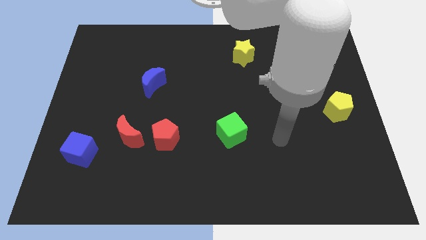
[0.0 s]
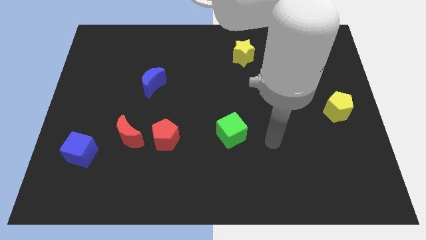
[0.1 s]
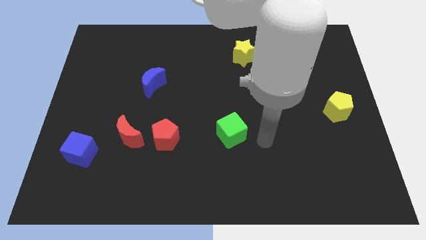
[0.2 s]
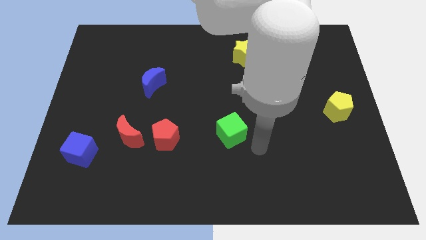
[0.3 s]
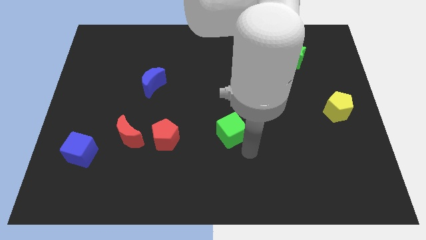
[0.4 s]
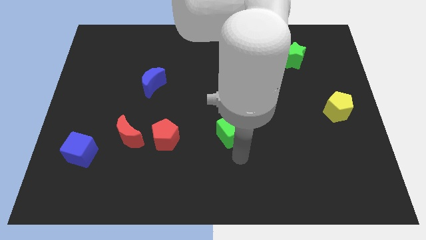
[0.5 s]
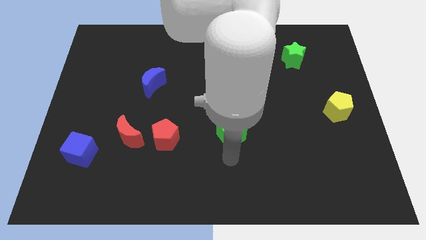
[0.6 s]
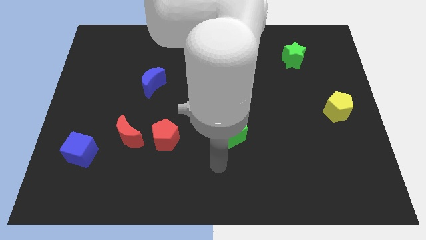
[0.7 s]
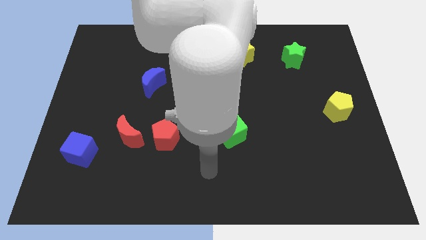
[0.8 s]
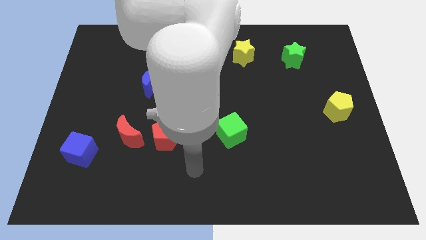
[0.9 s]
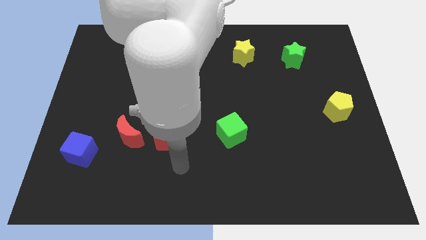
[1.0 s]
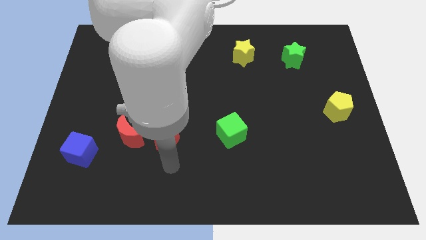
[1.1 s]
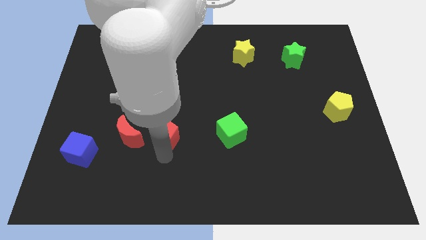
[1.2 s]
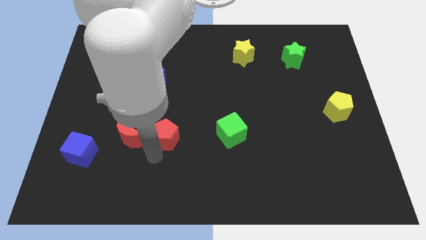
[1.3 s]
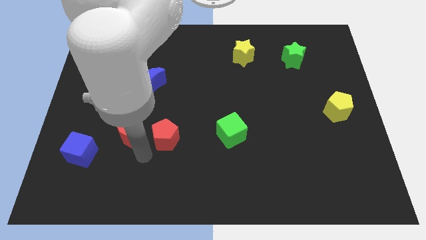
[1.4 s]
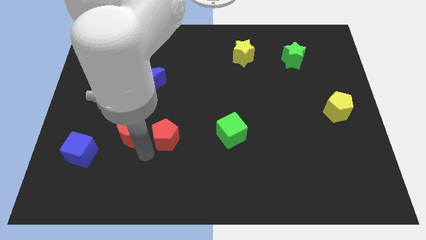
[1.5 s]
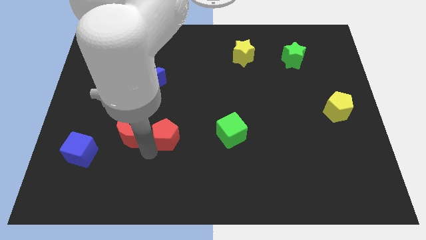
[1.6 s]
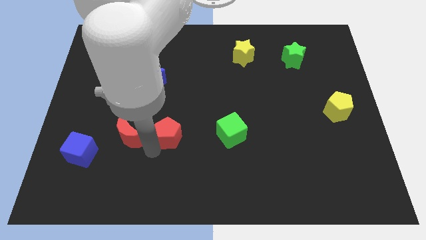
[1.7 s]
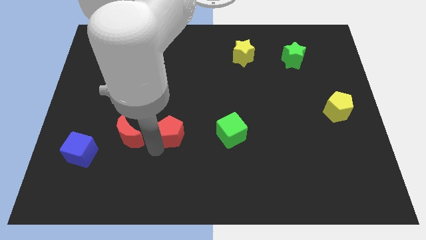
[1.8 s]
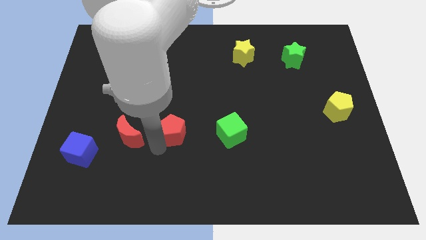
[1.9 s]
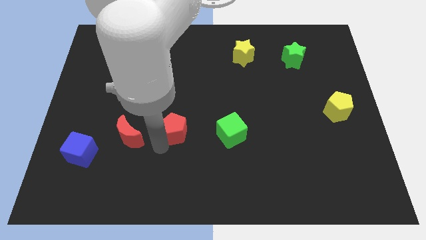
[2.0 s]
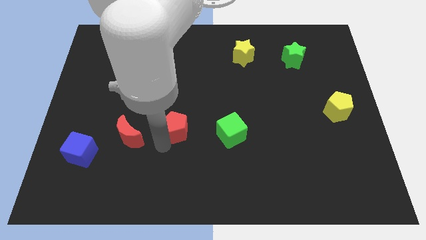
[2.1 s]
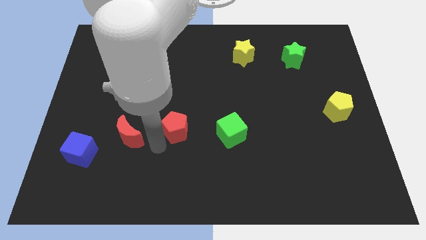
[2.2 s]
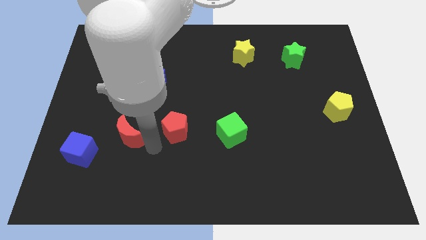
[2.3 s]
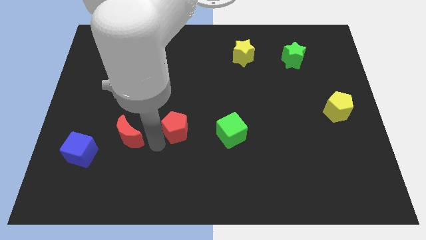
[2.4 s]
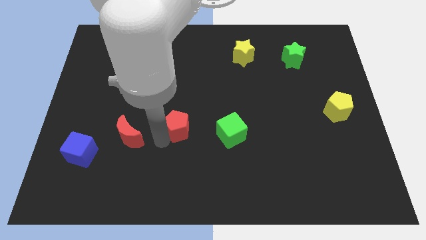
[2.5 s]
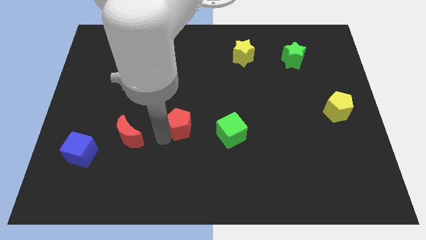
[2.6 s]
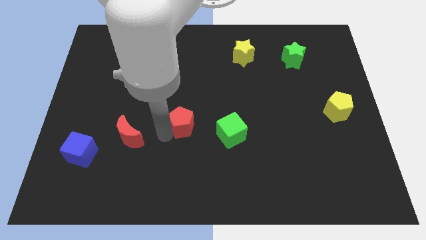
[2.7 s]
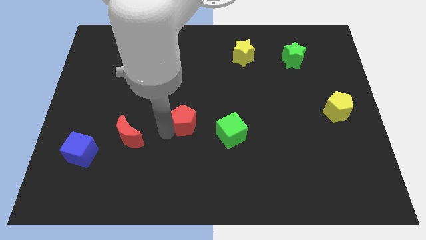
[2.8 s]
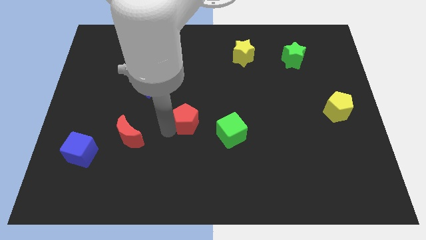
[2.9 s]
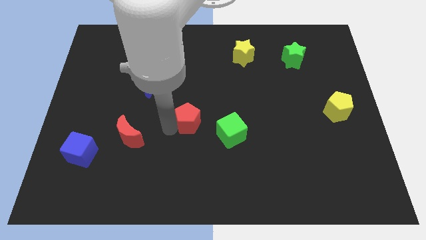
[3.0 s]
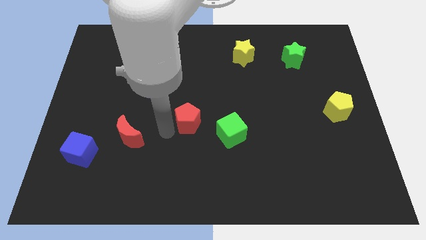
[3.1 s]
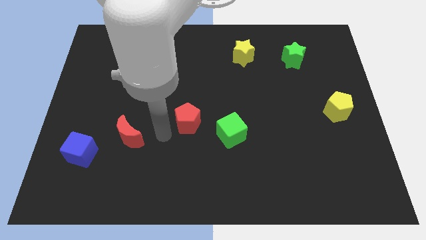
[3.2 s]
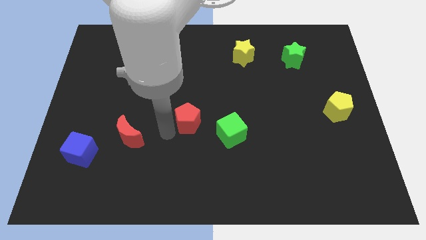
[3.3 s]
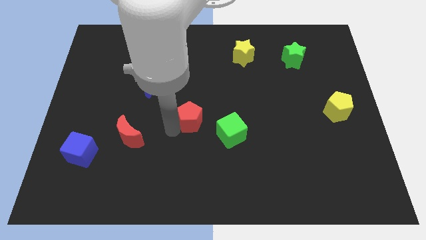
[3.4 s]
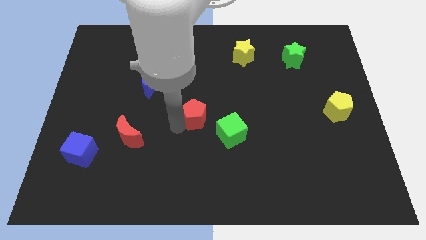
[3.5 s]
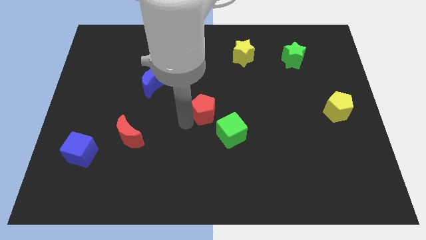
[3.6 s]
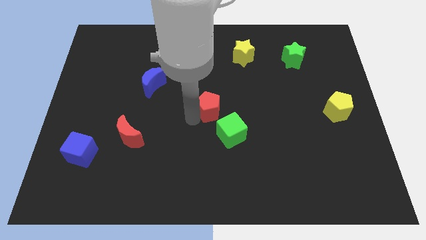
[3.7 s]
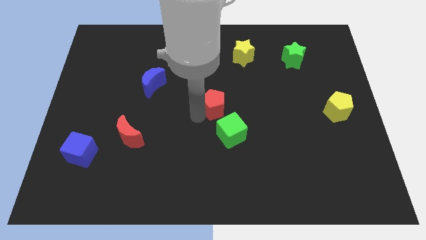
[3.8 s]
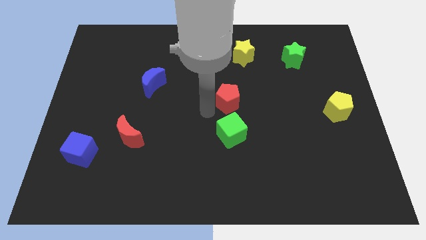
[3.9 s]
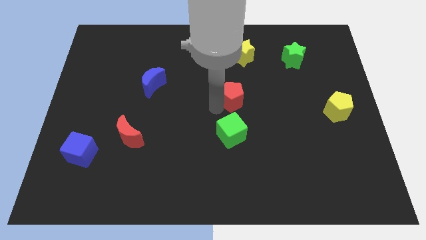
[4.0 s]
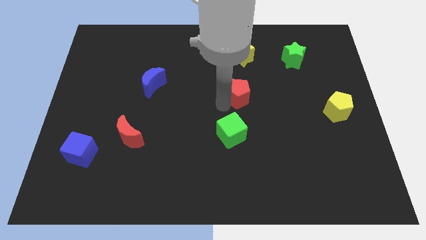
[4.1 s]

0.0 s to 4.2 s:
push the red pentagon up and to the right diagonally

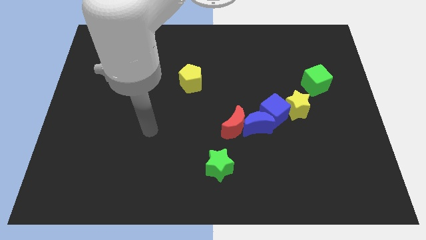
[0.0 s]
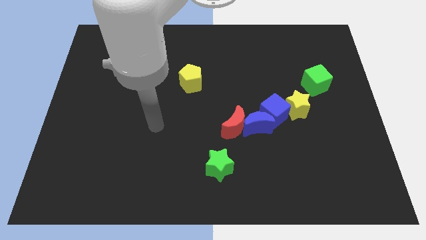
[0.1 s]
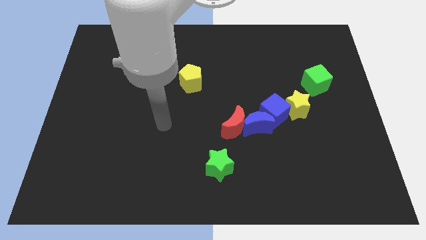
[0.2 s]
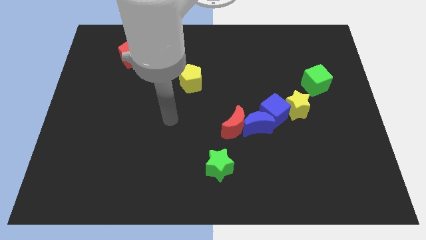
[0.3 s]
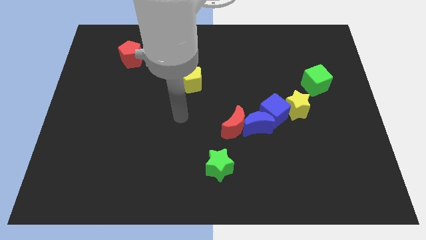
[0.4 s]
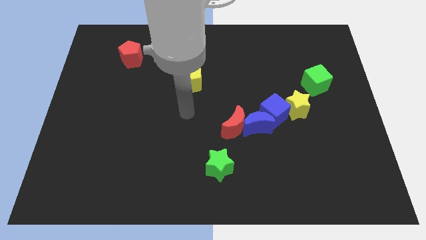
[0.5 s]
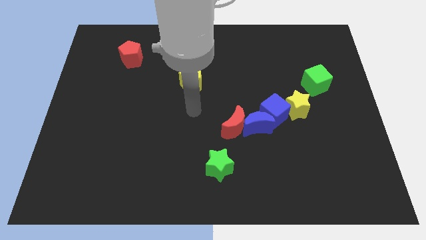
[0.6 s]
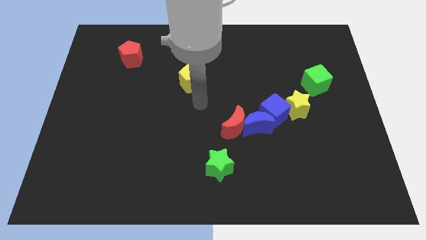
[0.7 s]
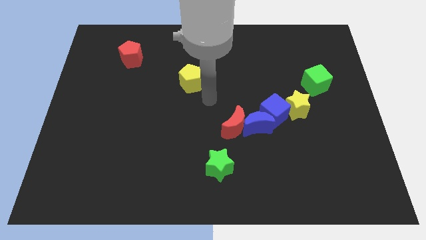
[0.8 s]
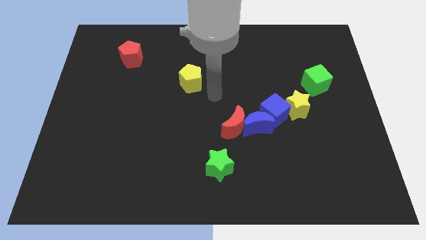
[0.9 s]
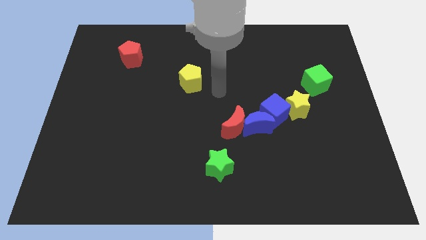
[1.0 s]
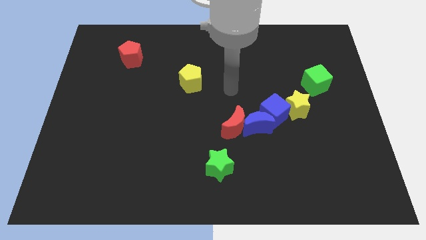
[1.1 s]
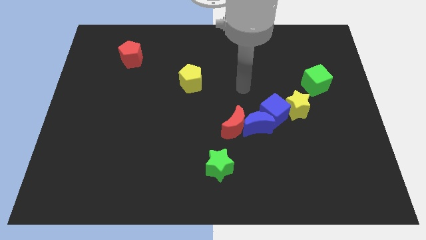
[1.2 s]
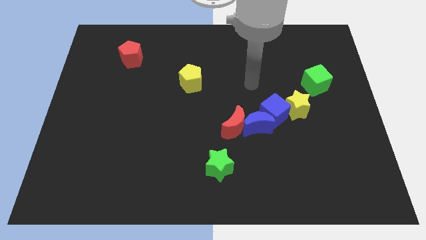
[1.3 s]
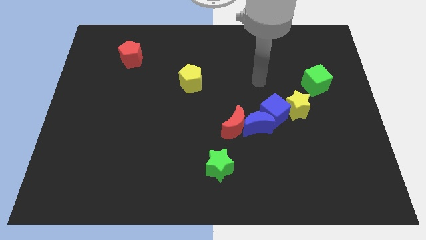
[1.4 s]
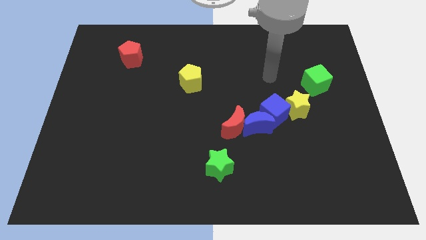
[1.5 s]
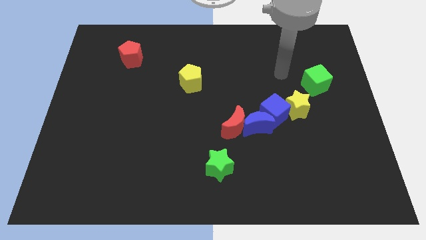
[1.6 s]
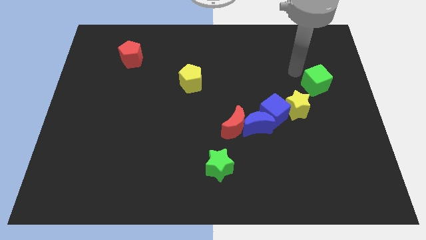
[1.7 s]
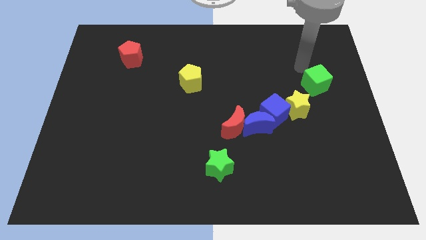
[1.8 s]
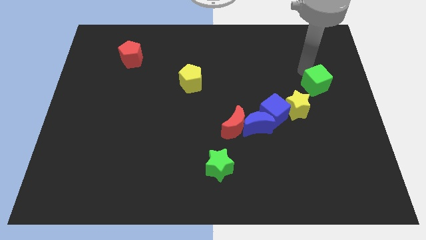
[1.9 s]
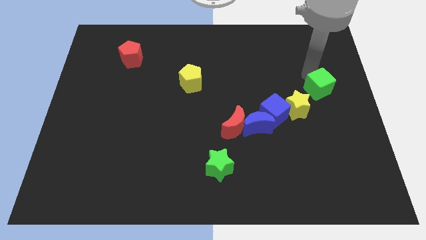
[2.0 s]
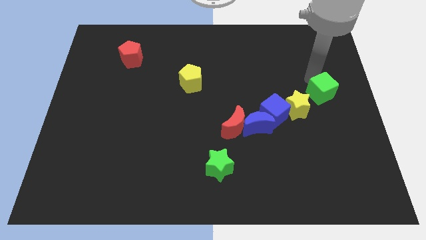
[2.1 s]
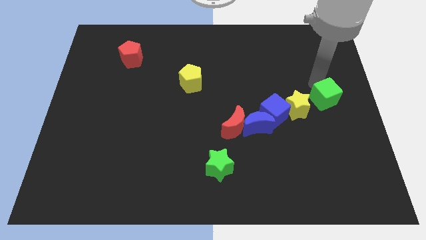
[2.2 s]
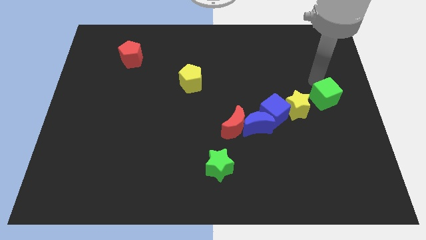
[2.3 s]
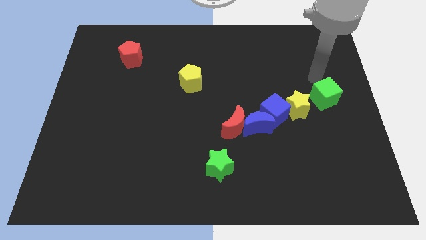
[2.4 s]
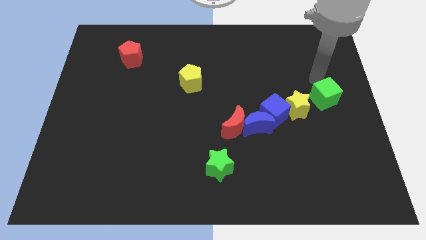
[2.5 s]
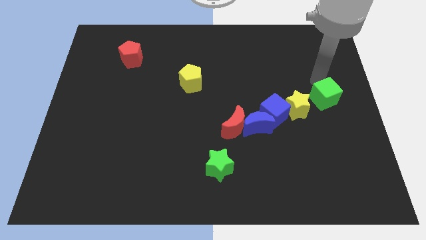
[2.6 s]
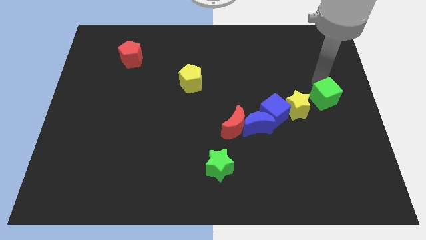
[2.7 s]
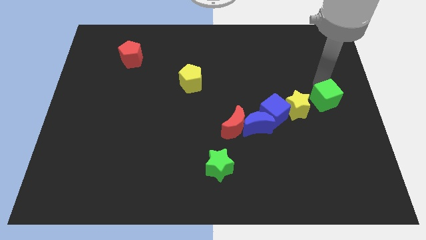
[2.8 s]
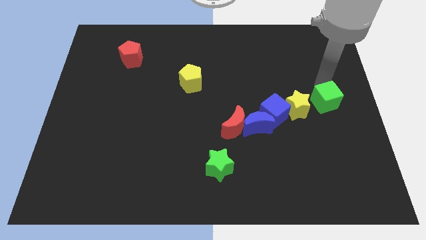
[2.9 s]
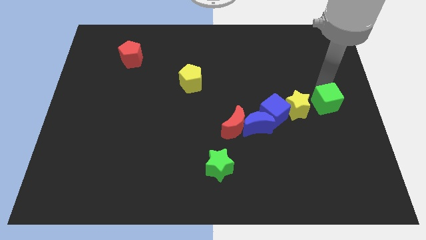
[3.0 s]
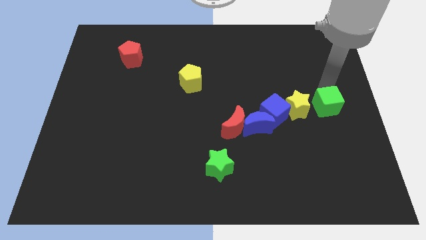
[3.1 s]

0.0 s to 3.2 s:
push the green cube downwards a little bit

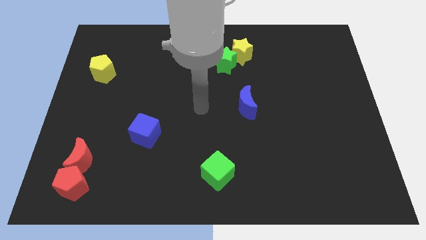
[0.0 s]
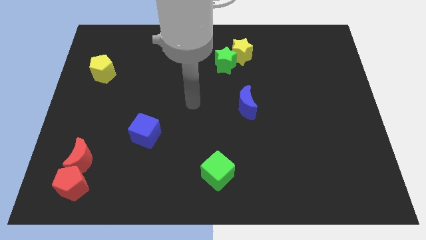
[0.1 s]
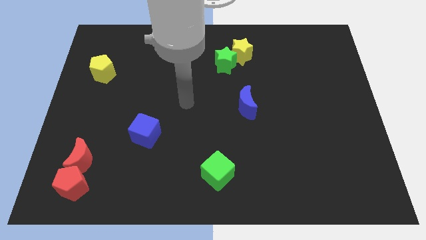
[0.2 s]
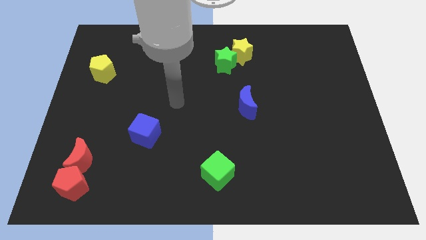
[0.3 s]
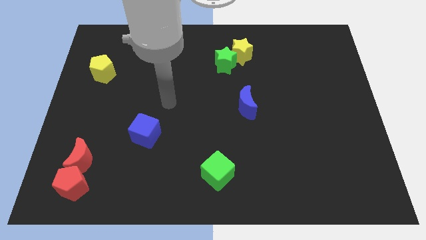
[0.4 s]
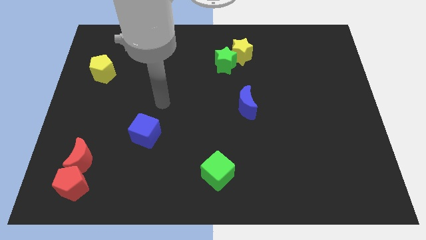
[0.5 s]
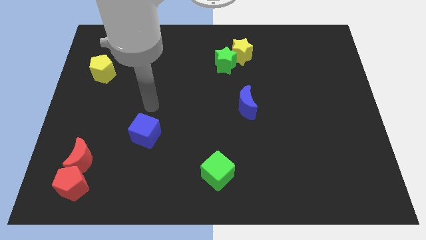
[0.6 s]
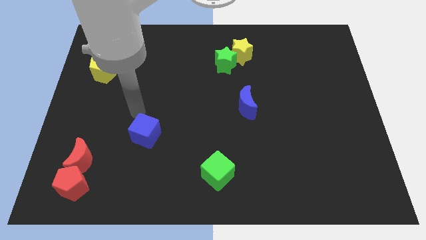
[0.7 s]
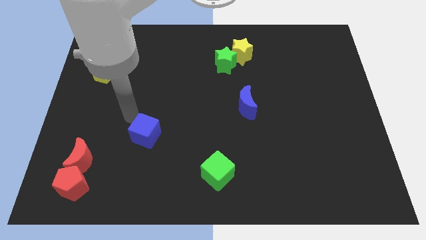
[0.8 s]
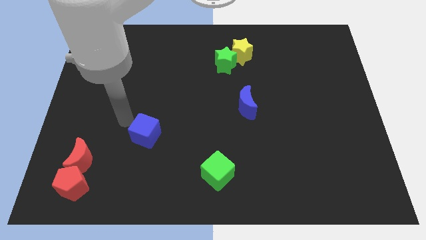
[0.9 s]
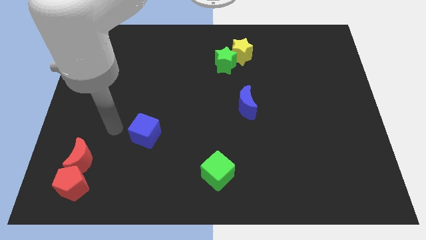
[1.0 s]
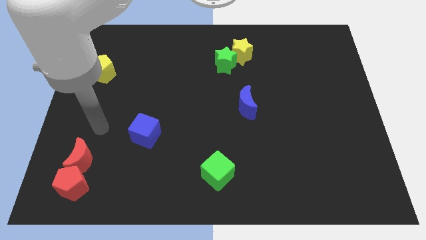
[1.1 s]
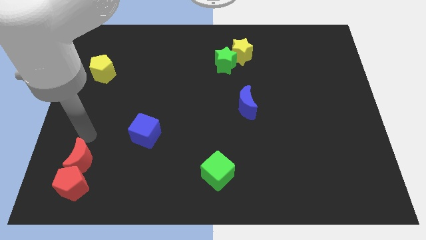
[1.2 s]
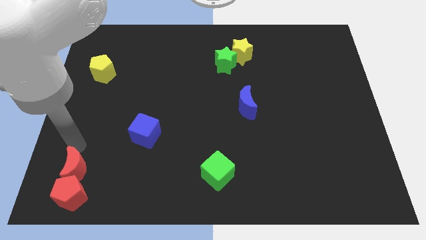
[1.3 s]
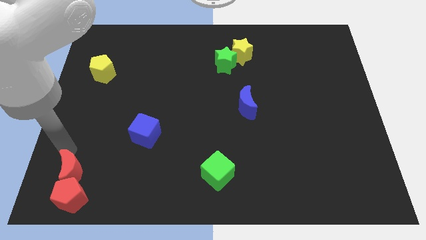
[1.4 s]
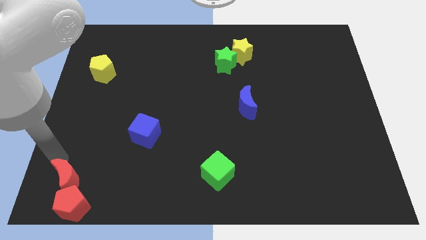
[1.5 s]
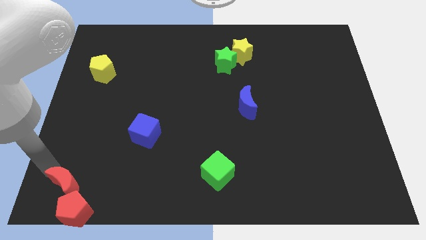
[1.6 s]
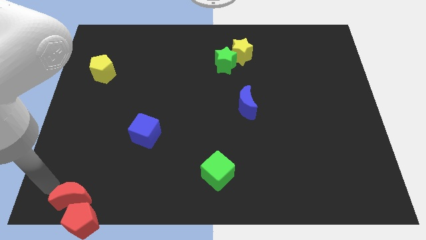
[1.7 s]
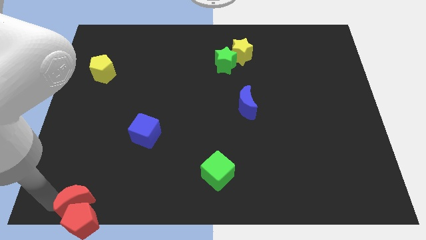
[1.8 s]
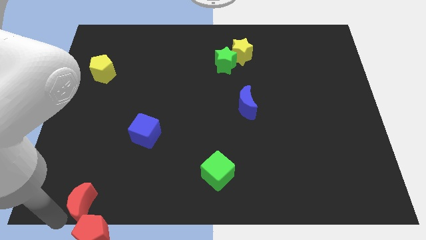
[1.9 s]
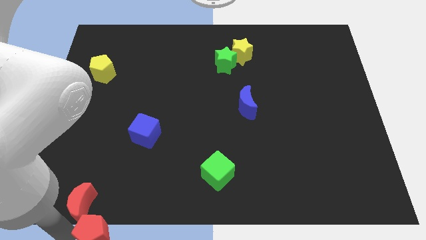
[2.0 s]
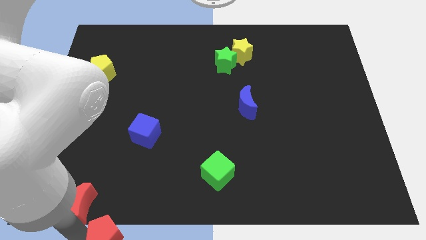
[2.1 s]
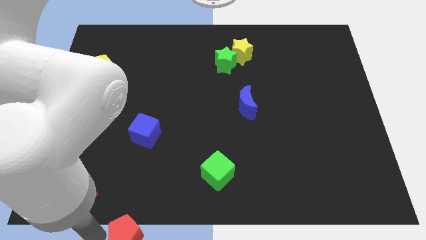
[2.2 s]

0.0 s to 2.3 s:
slide the red pentagon to the right a bit
